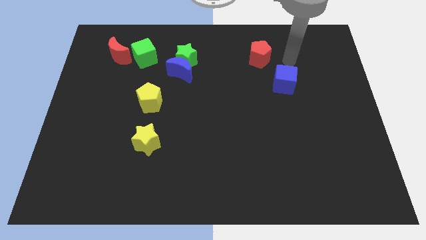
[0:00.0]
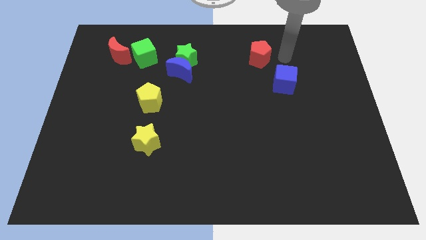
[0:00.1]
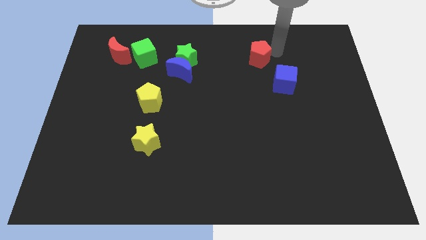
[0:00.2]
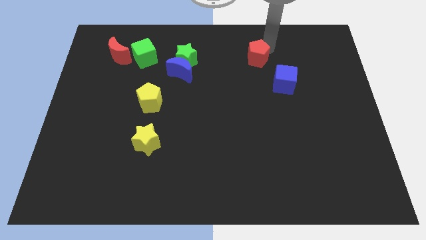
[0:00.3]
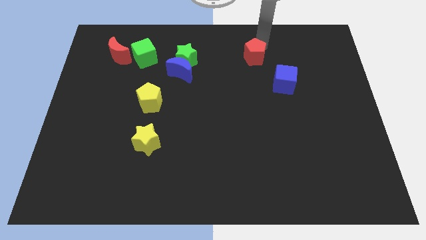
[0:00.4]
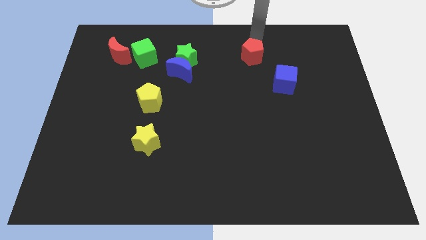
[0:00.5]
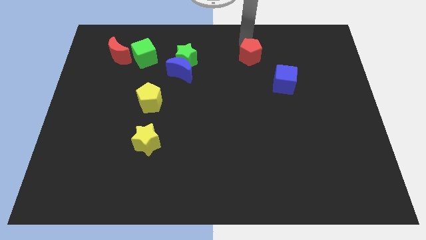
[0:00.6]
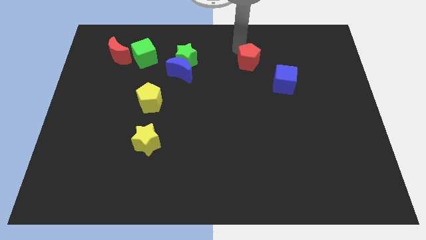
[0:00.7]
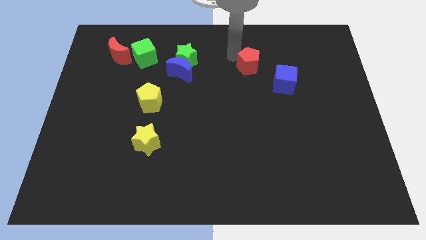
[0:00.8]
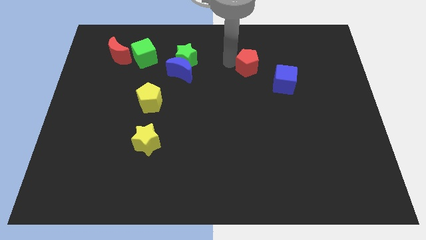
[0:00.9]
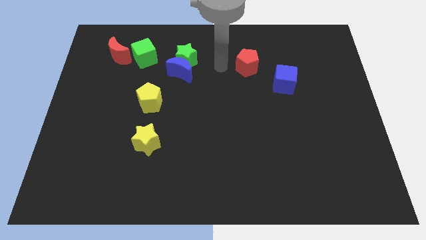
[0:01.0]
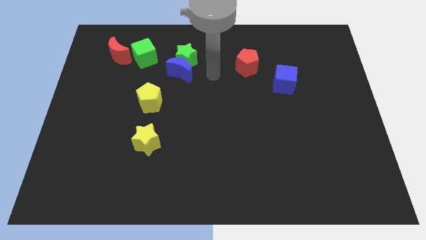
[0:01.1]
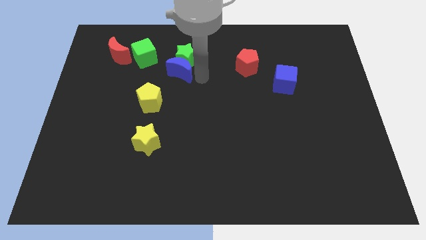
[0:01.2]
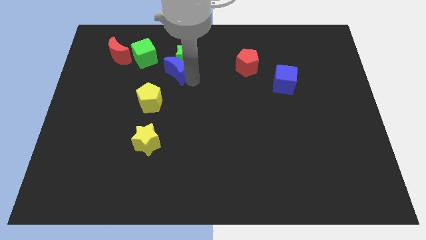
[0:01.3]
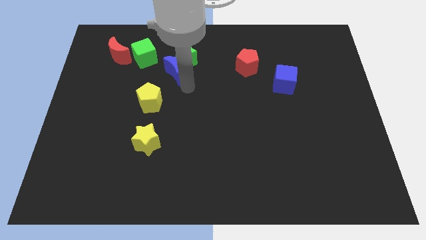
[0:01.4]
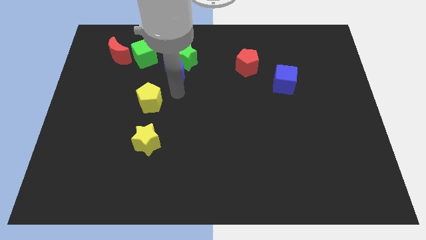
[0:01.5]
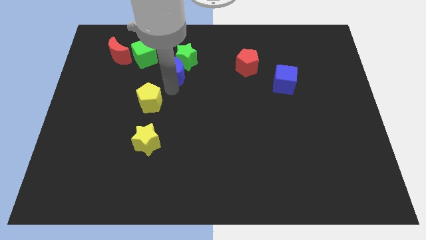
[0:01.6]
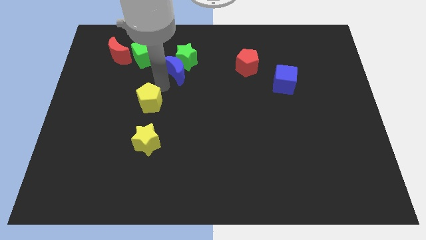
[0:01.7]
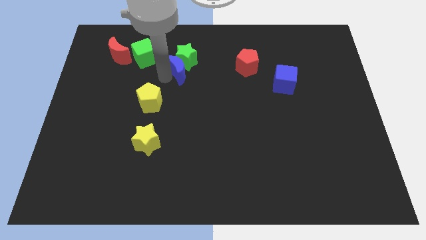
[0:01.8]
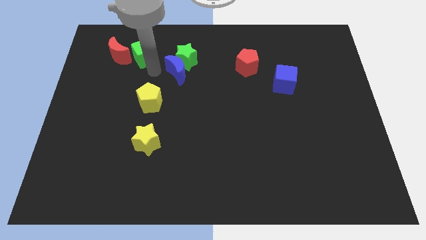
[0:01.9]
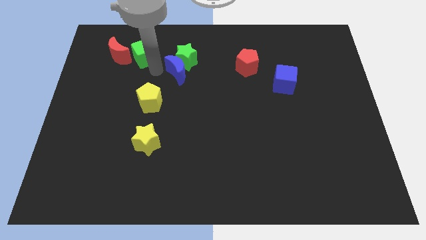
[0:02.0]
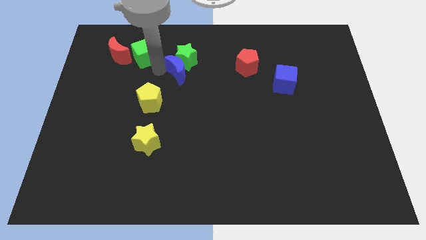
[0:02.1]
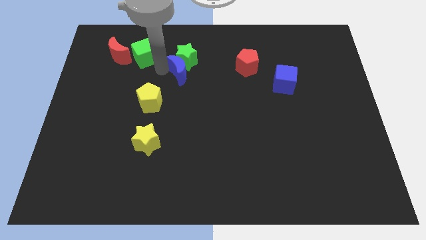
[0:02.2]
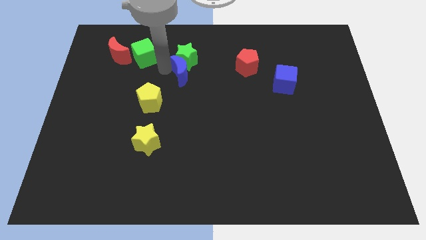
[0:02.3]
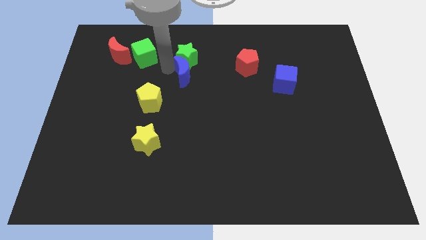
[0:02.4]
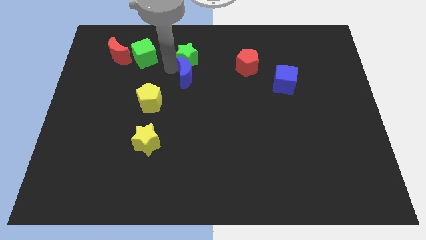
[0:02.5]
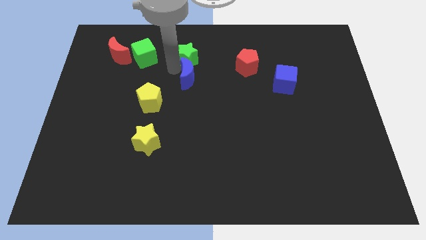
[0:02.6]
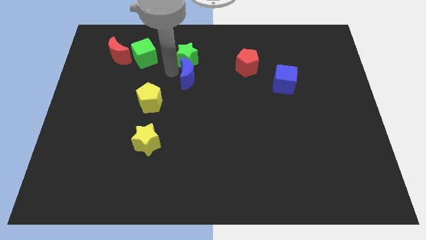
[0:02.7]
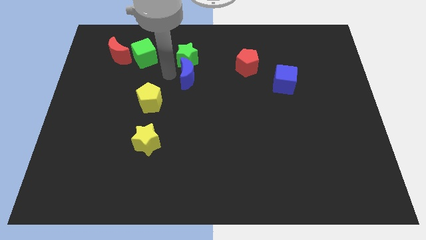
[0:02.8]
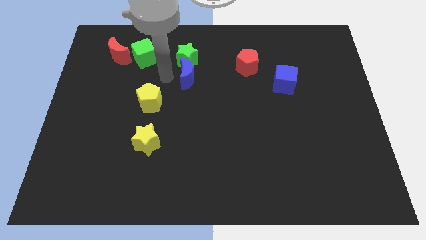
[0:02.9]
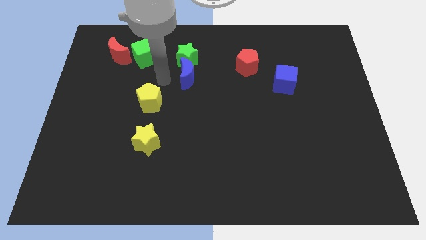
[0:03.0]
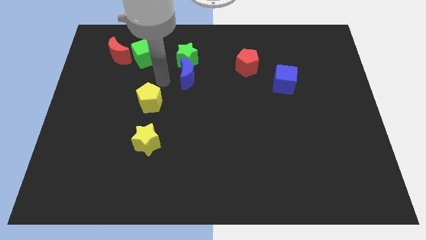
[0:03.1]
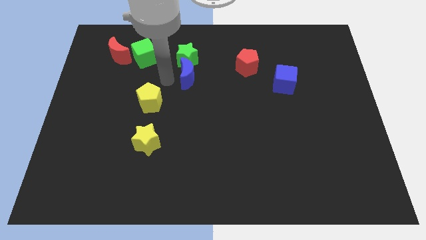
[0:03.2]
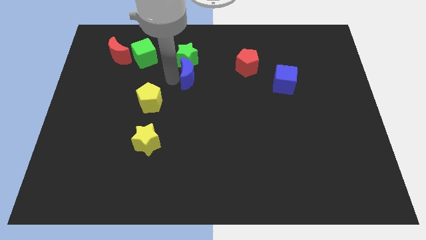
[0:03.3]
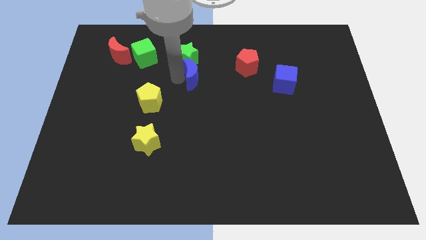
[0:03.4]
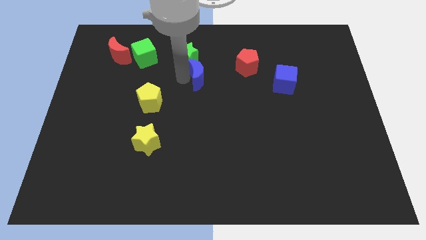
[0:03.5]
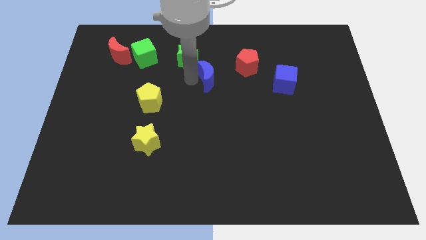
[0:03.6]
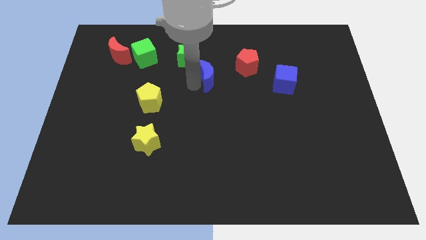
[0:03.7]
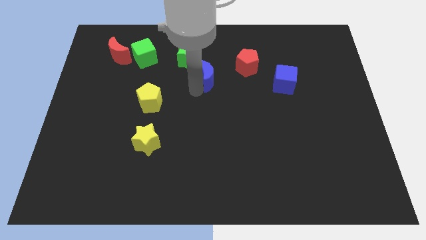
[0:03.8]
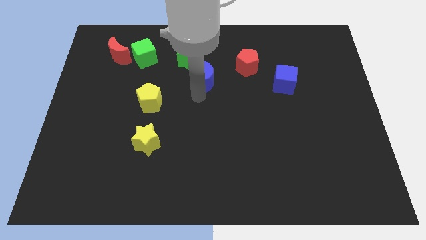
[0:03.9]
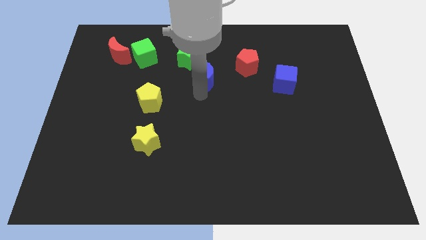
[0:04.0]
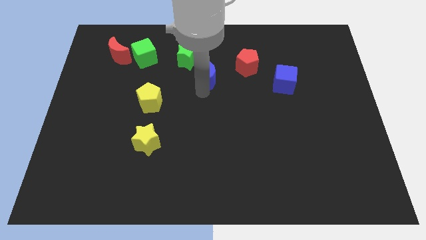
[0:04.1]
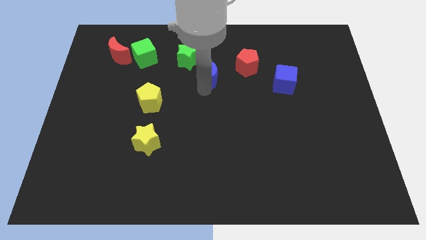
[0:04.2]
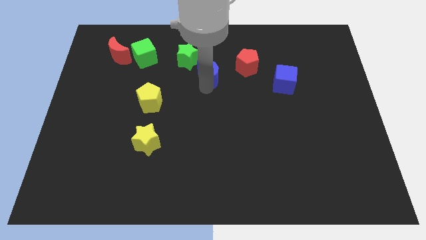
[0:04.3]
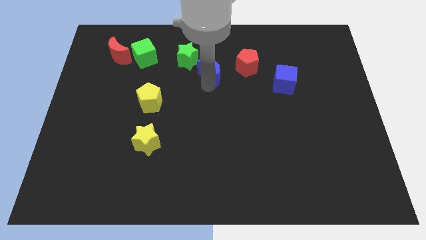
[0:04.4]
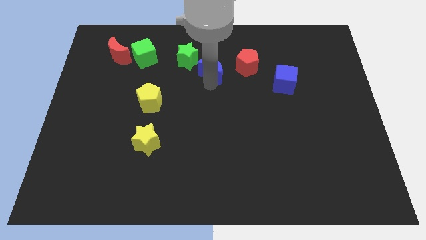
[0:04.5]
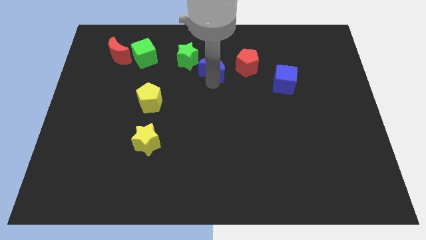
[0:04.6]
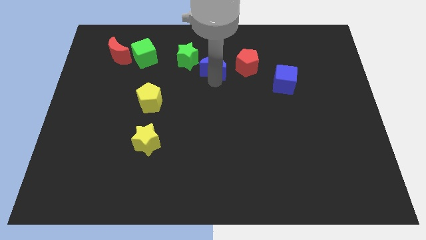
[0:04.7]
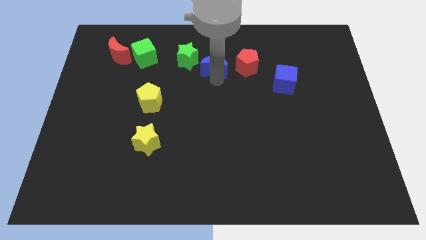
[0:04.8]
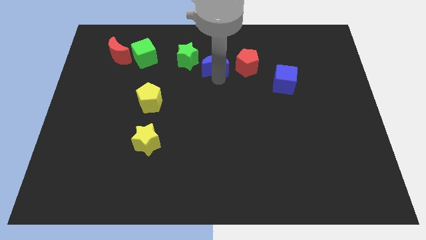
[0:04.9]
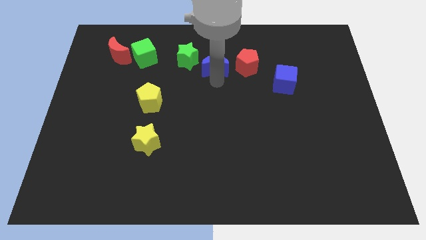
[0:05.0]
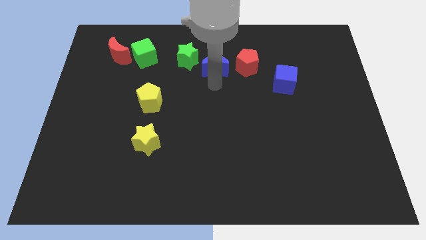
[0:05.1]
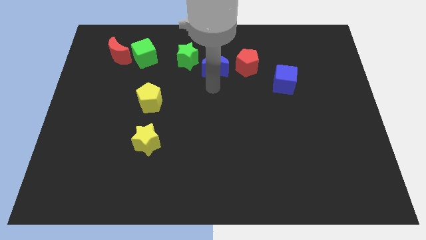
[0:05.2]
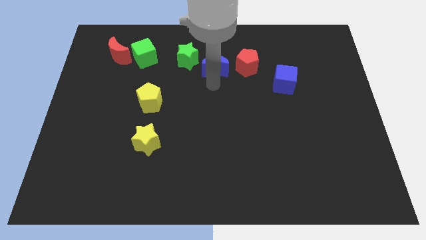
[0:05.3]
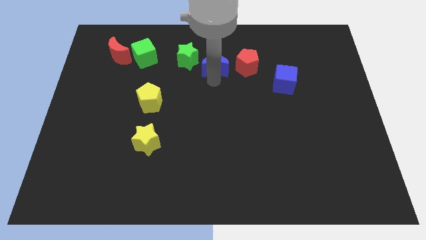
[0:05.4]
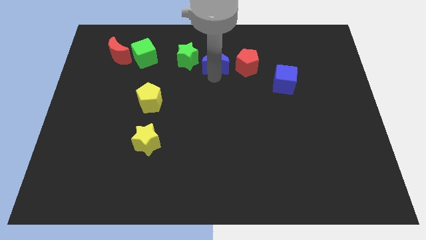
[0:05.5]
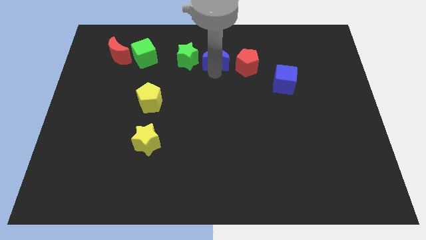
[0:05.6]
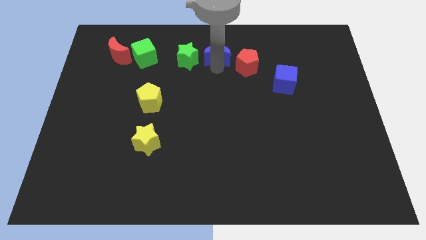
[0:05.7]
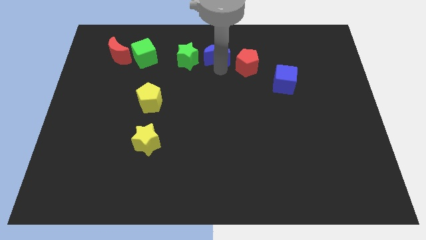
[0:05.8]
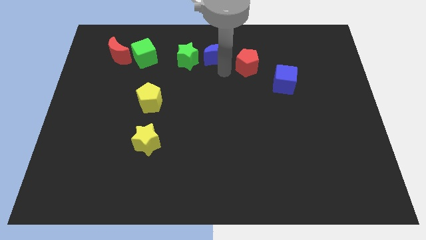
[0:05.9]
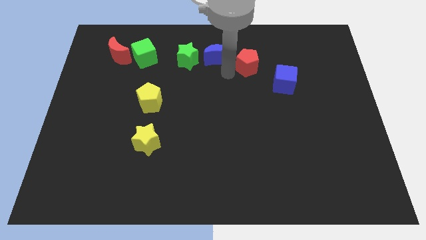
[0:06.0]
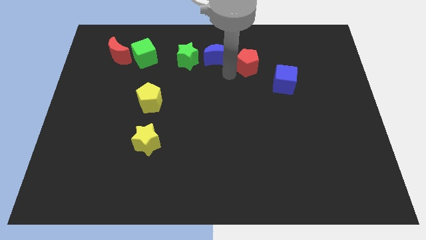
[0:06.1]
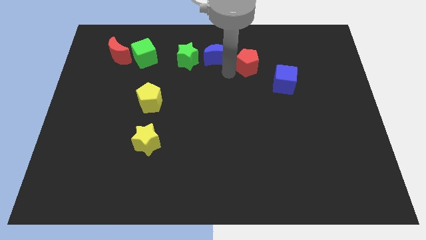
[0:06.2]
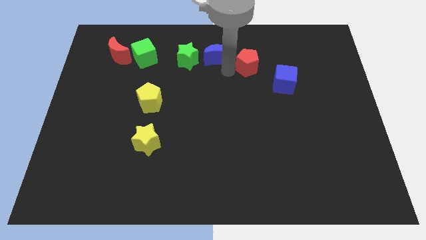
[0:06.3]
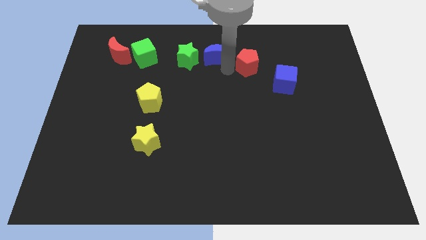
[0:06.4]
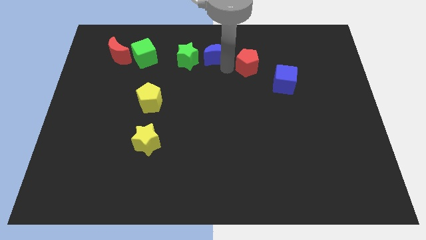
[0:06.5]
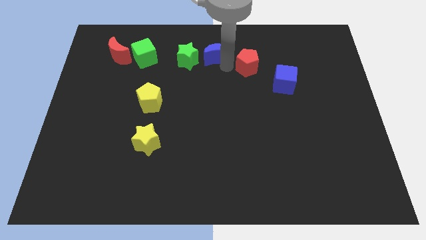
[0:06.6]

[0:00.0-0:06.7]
push the blue moon to the towards your base

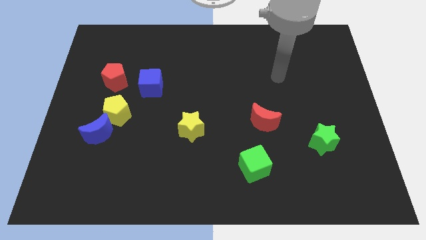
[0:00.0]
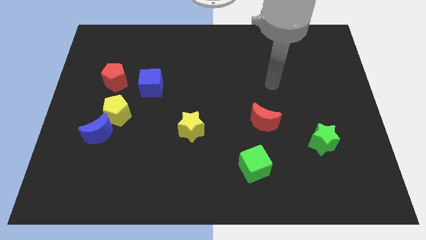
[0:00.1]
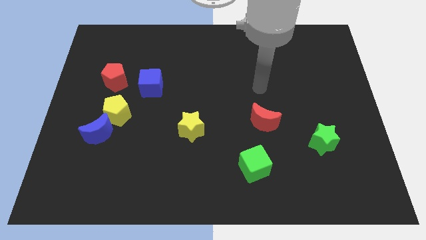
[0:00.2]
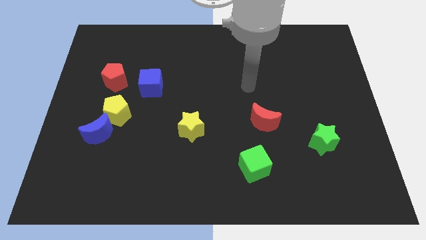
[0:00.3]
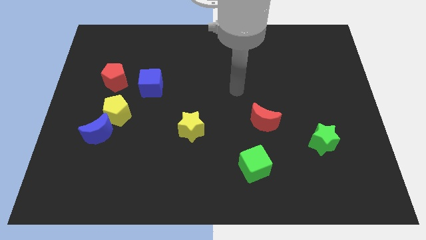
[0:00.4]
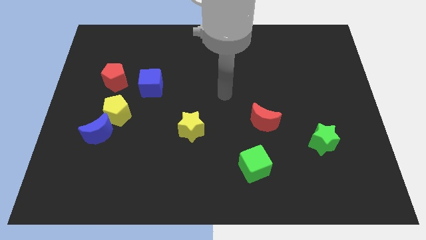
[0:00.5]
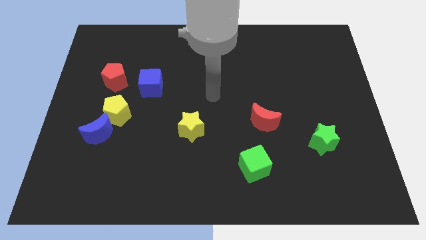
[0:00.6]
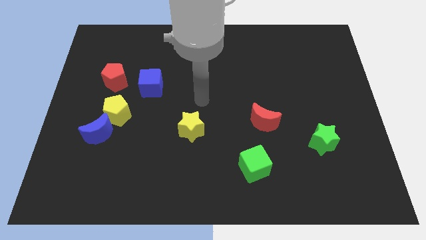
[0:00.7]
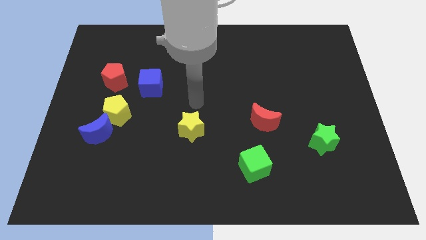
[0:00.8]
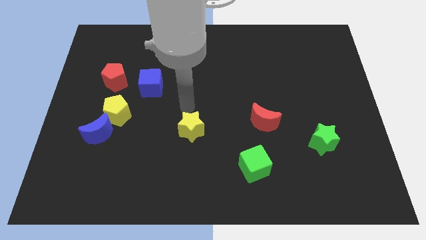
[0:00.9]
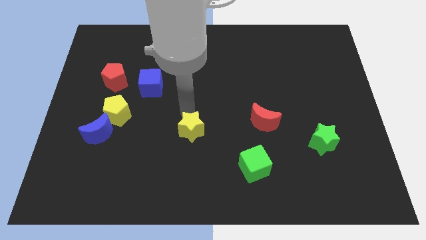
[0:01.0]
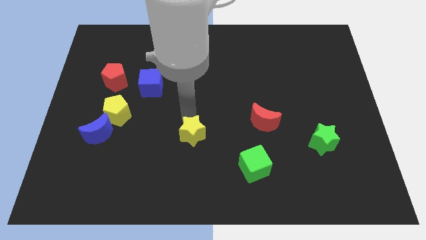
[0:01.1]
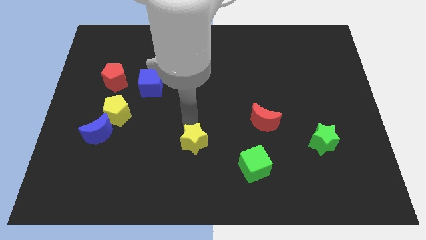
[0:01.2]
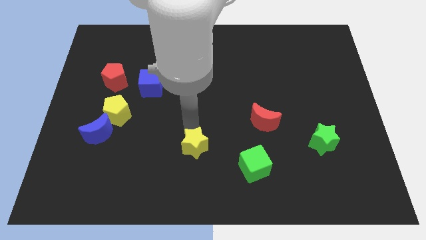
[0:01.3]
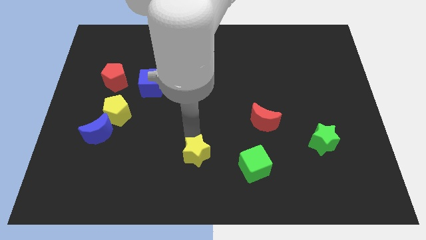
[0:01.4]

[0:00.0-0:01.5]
slide the yellow star to the bottom

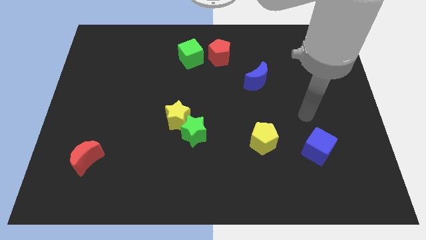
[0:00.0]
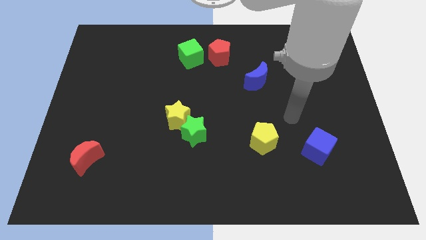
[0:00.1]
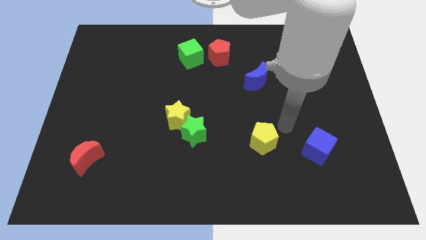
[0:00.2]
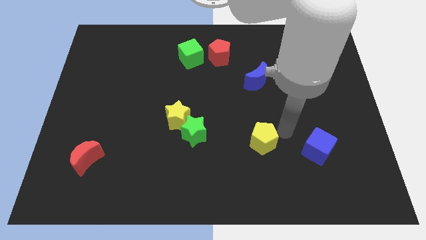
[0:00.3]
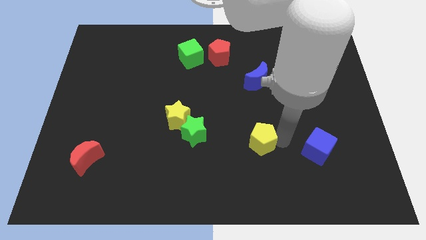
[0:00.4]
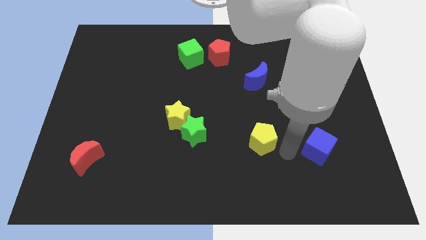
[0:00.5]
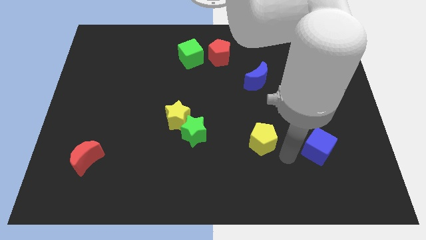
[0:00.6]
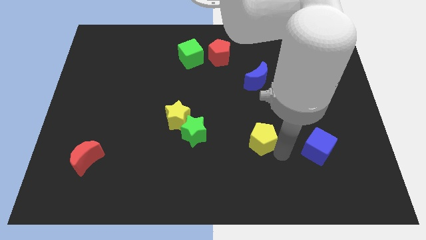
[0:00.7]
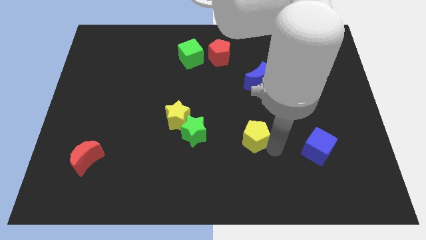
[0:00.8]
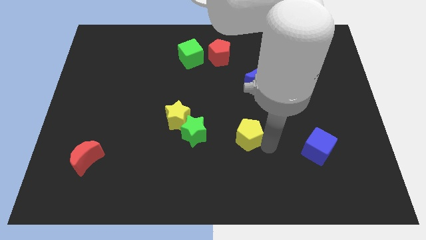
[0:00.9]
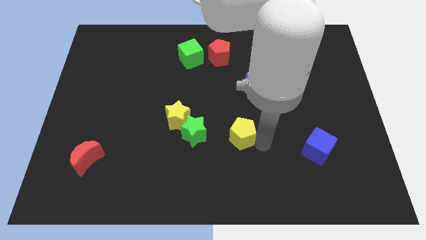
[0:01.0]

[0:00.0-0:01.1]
slide the yellow pentagon to the center
